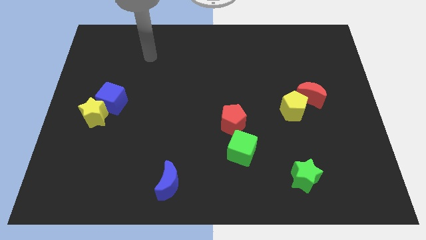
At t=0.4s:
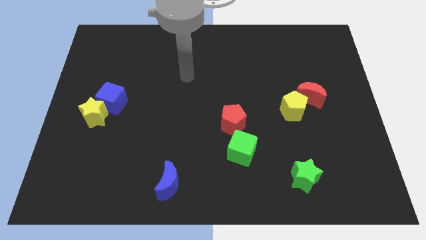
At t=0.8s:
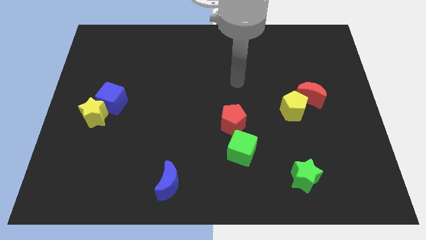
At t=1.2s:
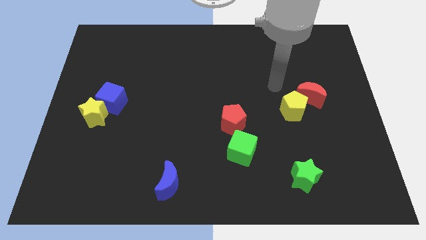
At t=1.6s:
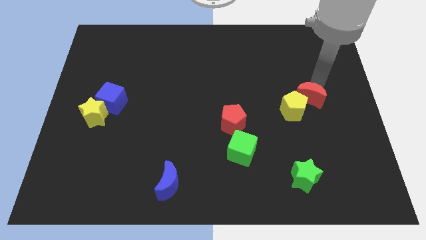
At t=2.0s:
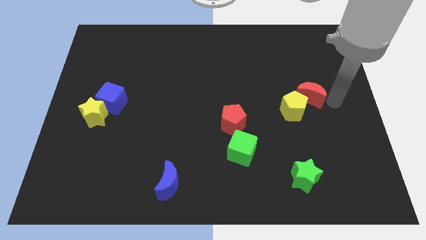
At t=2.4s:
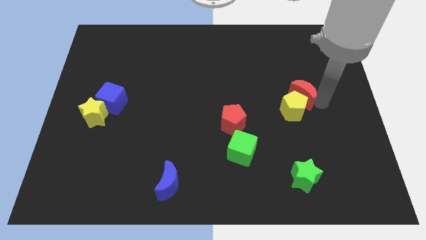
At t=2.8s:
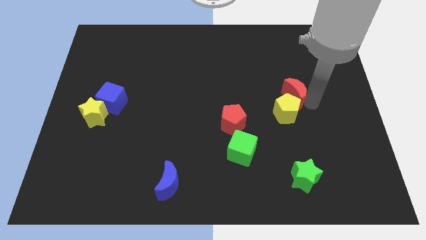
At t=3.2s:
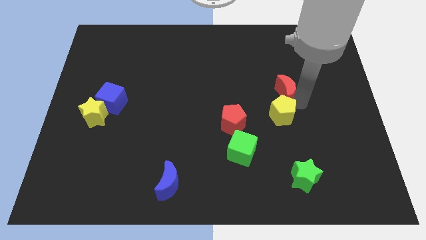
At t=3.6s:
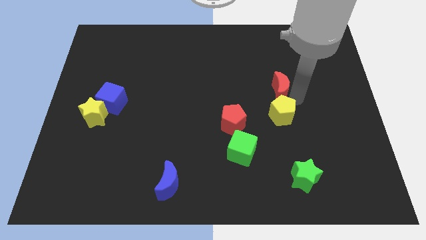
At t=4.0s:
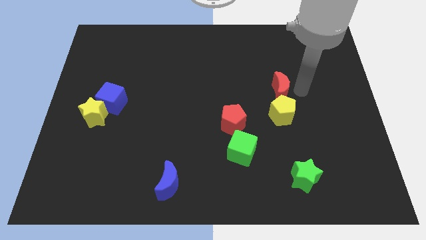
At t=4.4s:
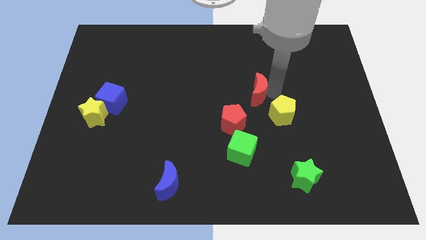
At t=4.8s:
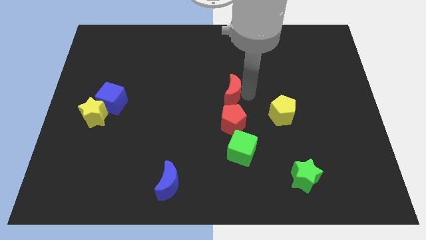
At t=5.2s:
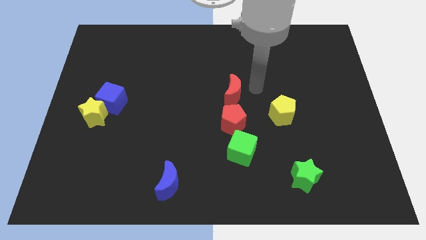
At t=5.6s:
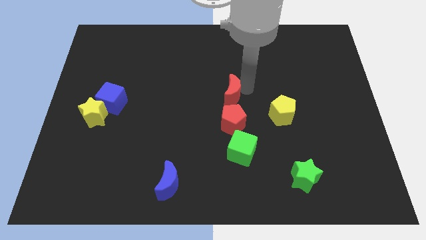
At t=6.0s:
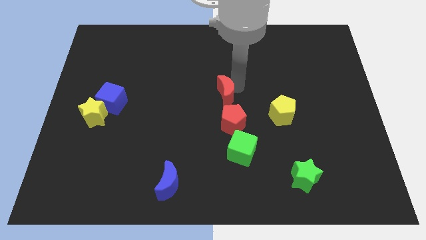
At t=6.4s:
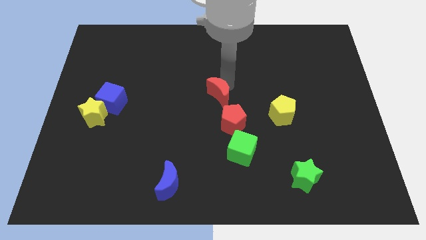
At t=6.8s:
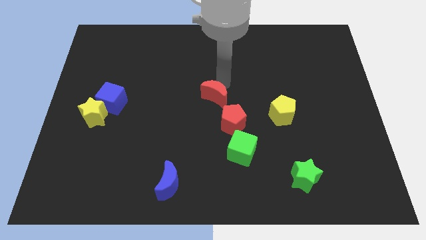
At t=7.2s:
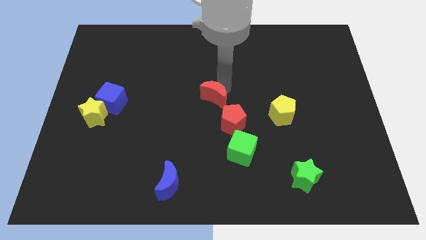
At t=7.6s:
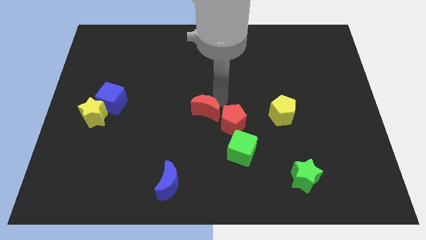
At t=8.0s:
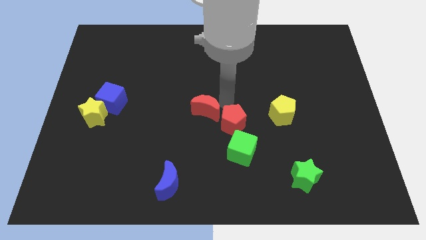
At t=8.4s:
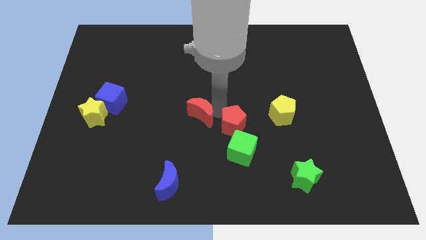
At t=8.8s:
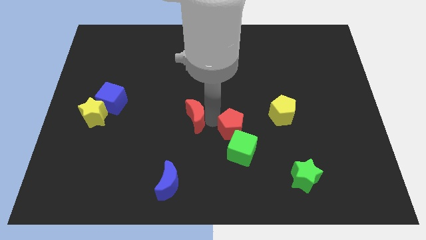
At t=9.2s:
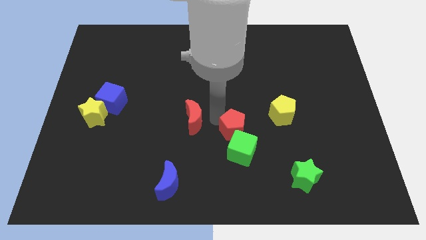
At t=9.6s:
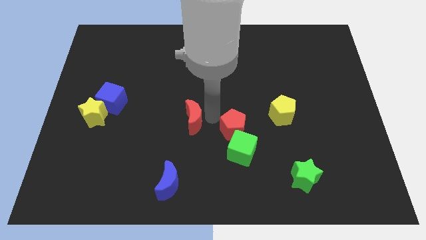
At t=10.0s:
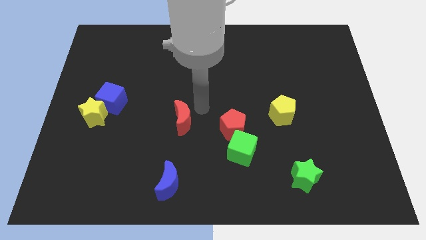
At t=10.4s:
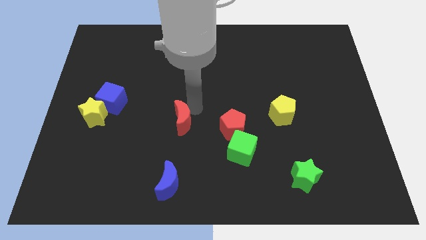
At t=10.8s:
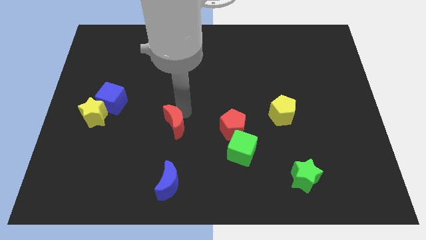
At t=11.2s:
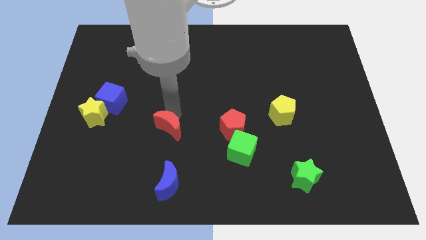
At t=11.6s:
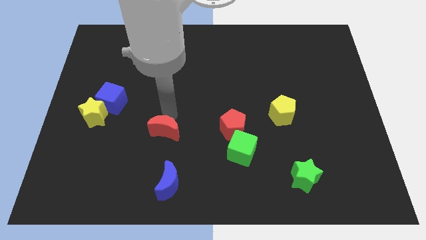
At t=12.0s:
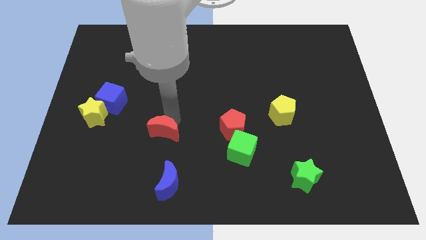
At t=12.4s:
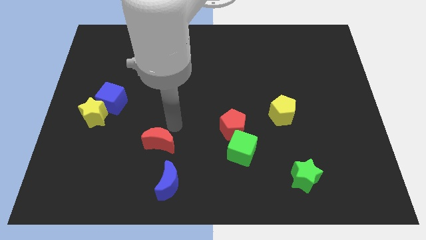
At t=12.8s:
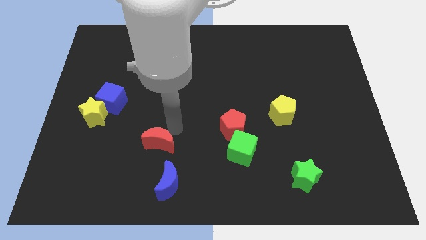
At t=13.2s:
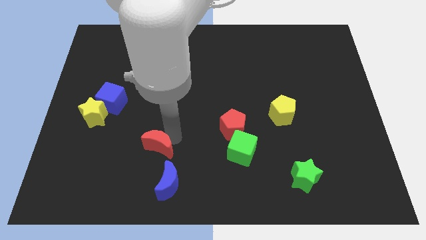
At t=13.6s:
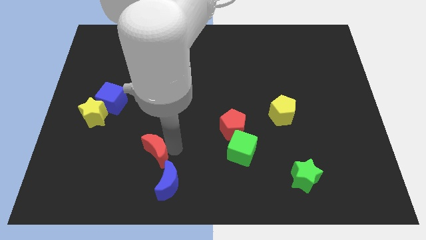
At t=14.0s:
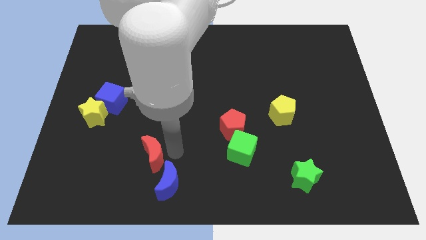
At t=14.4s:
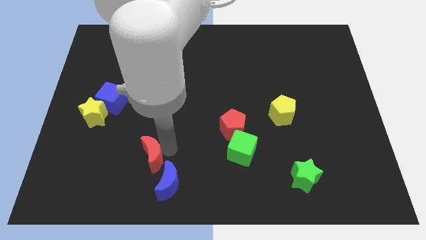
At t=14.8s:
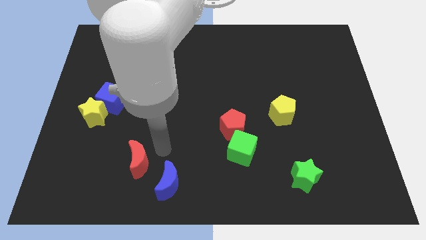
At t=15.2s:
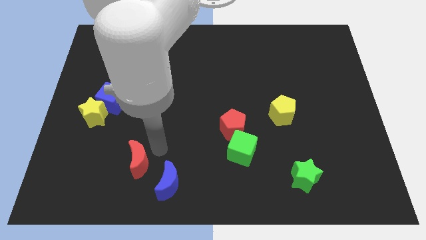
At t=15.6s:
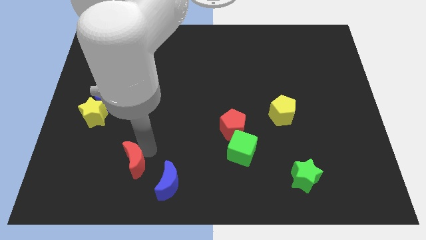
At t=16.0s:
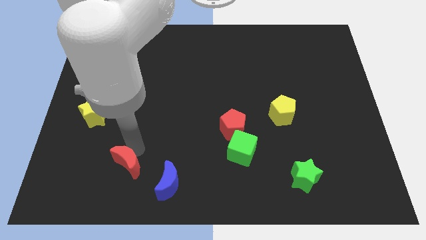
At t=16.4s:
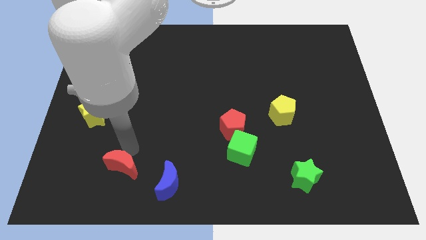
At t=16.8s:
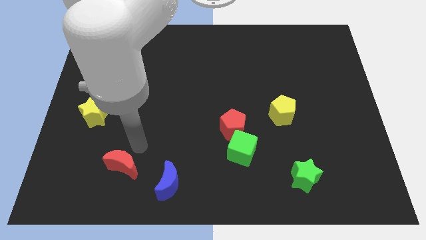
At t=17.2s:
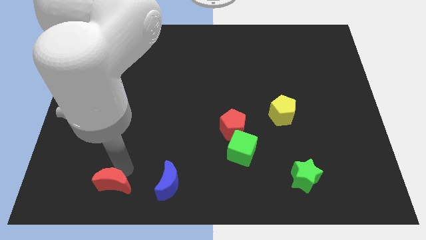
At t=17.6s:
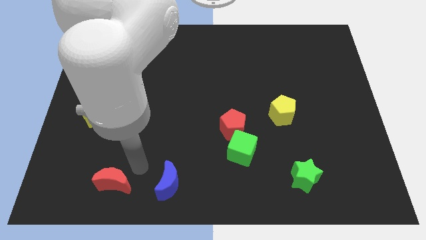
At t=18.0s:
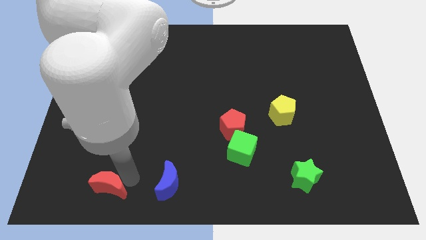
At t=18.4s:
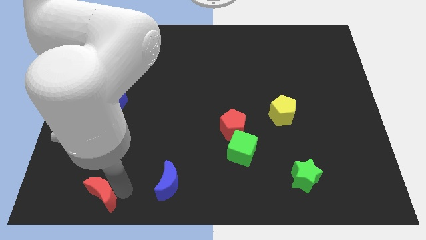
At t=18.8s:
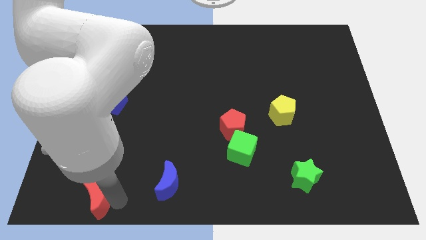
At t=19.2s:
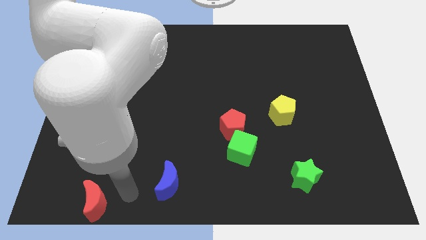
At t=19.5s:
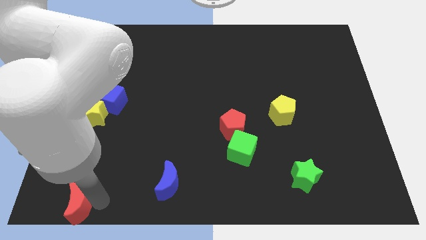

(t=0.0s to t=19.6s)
move the red moon to the bottom left of the board

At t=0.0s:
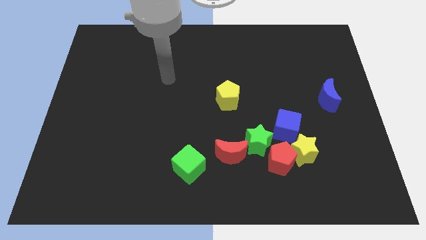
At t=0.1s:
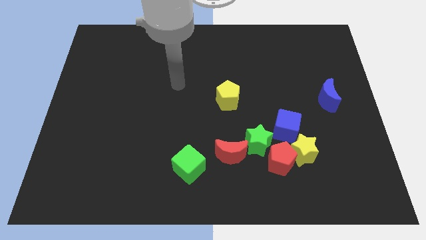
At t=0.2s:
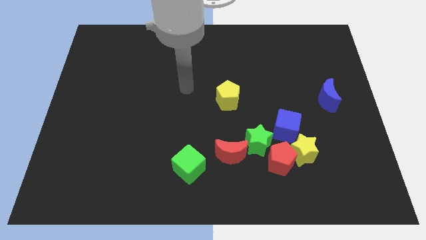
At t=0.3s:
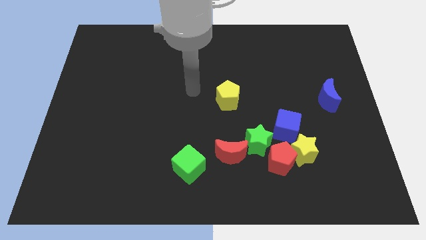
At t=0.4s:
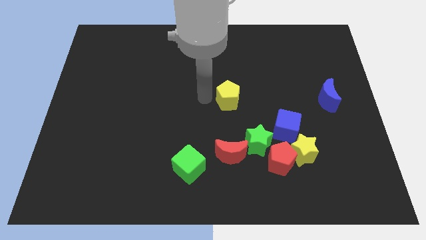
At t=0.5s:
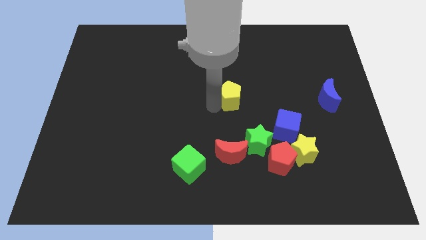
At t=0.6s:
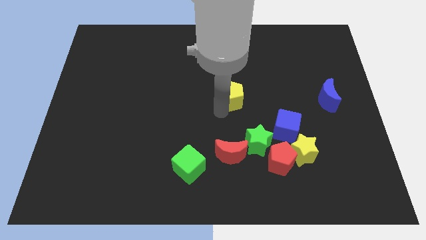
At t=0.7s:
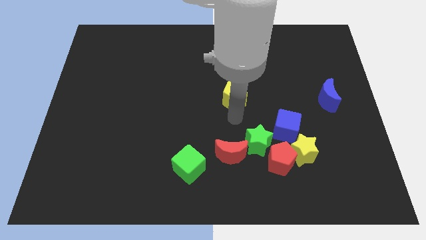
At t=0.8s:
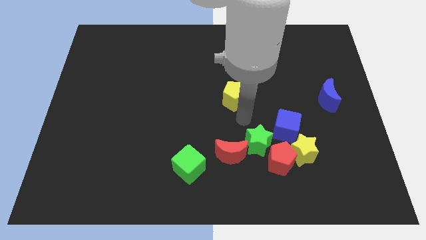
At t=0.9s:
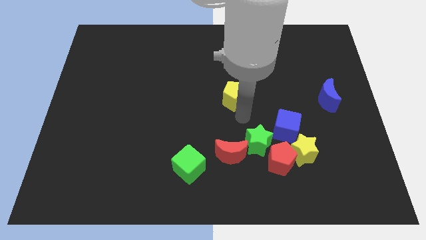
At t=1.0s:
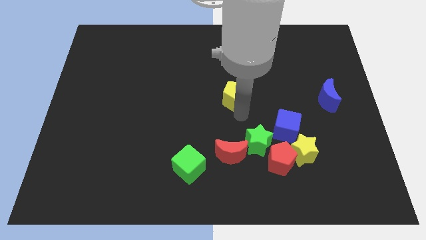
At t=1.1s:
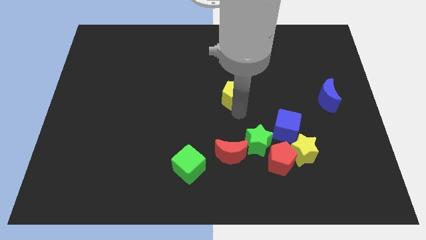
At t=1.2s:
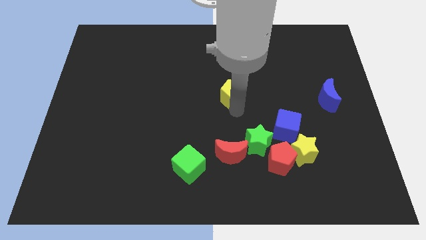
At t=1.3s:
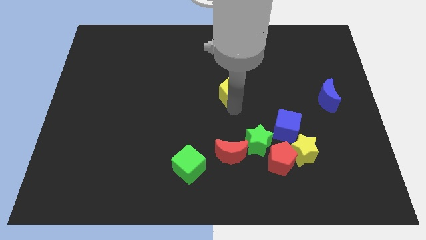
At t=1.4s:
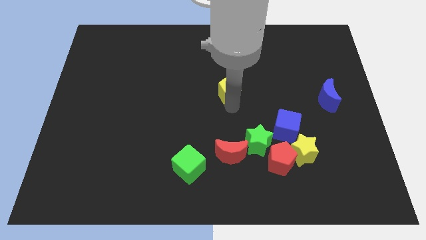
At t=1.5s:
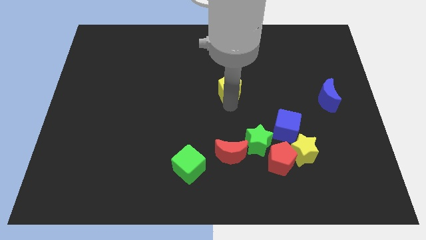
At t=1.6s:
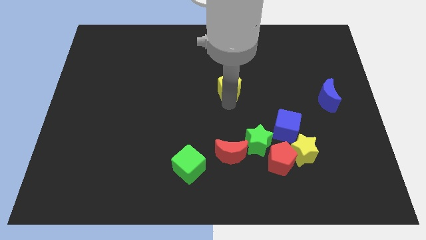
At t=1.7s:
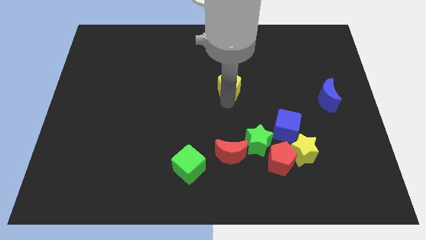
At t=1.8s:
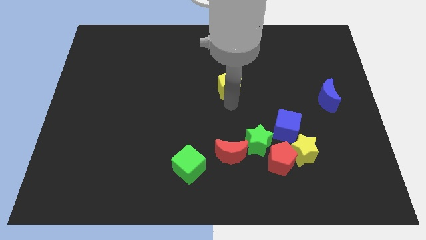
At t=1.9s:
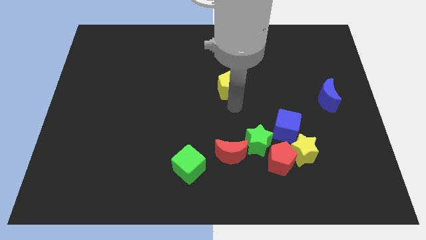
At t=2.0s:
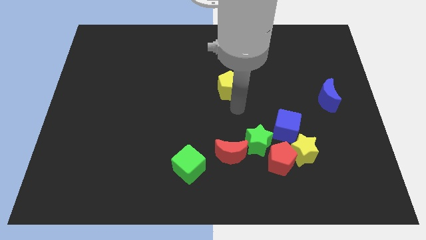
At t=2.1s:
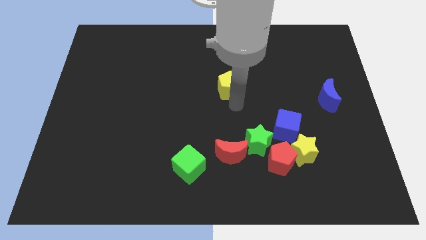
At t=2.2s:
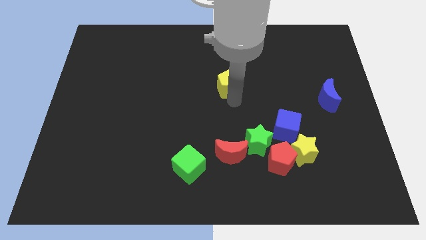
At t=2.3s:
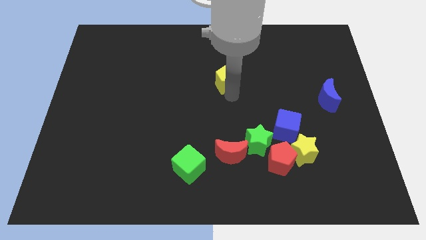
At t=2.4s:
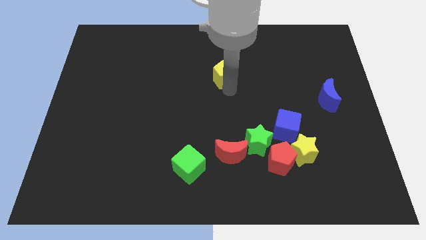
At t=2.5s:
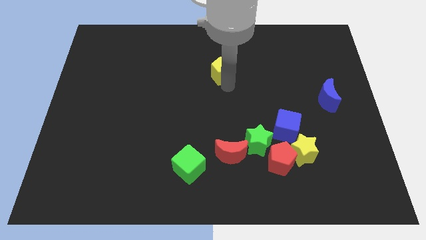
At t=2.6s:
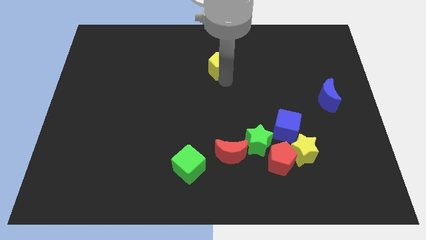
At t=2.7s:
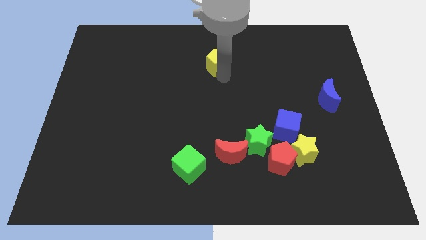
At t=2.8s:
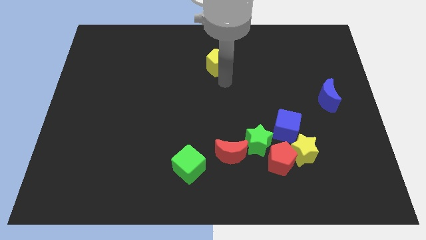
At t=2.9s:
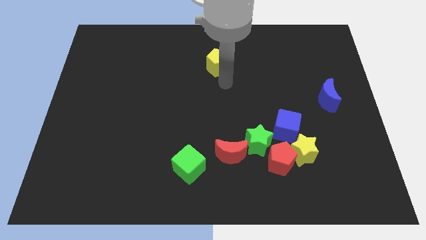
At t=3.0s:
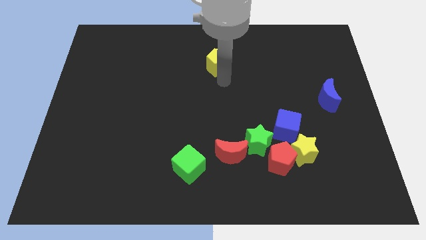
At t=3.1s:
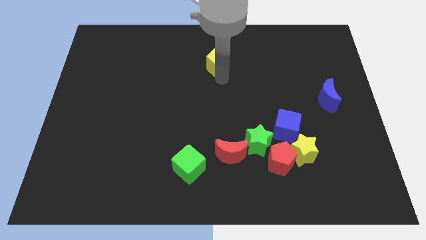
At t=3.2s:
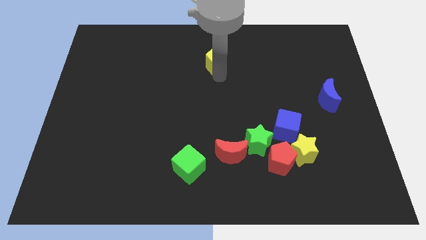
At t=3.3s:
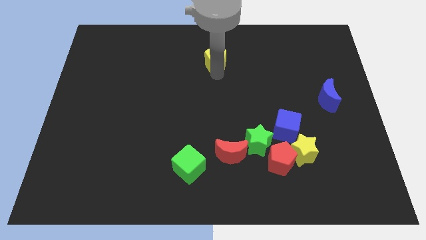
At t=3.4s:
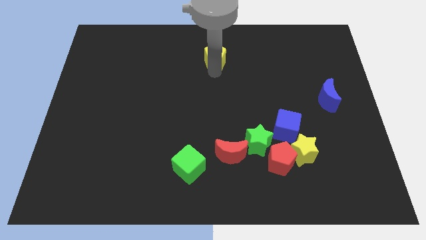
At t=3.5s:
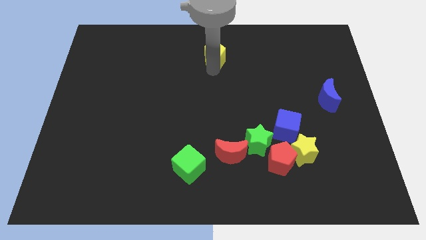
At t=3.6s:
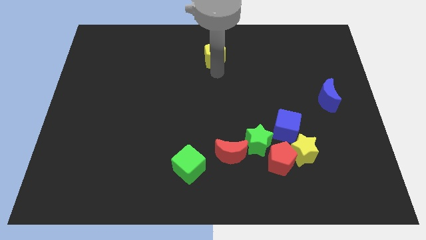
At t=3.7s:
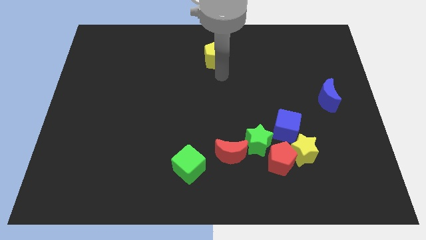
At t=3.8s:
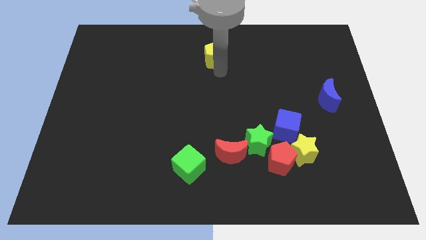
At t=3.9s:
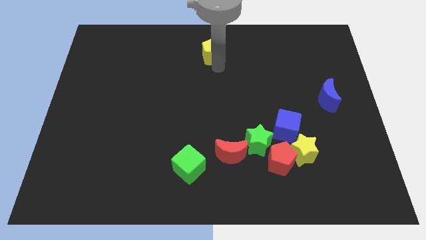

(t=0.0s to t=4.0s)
move the yellow pentagon to the towards your base
